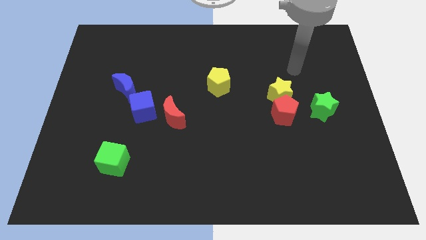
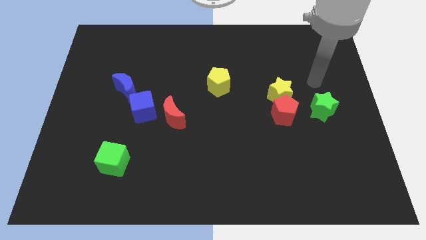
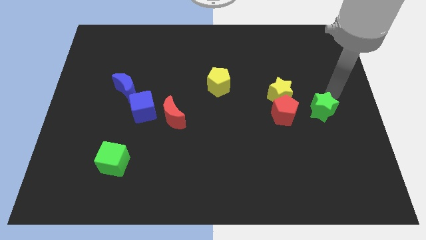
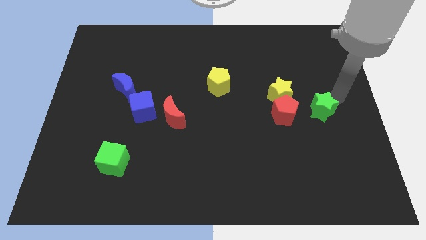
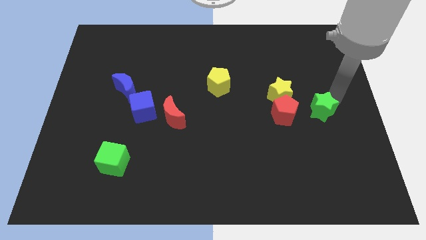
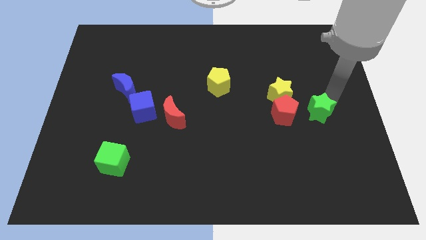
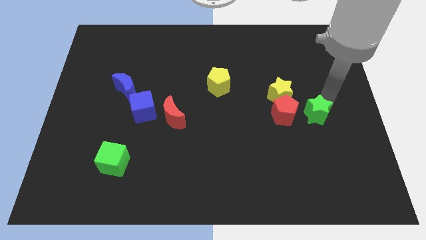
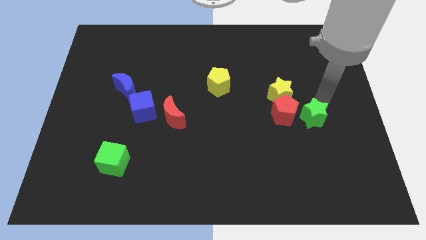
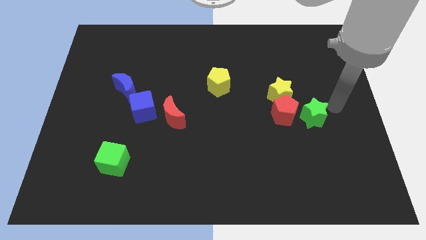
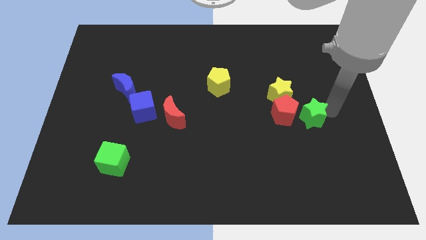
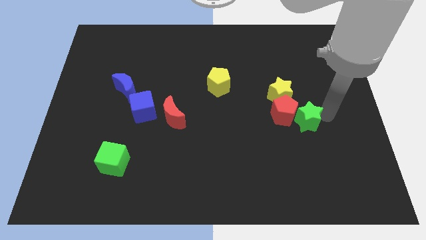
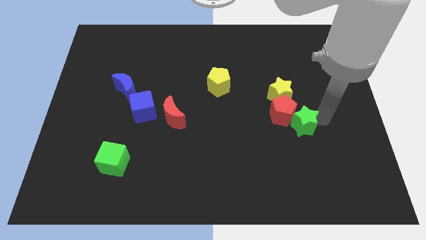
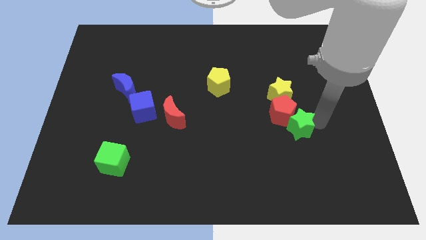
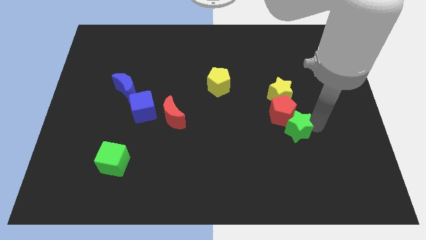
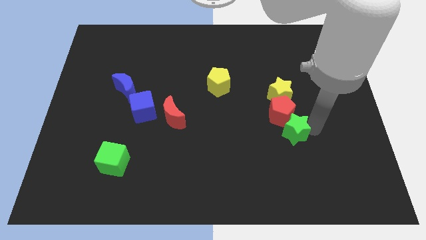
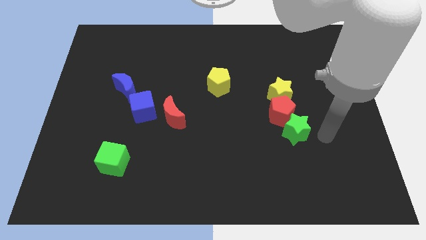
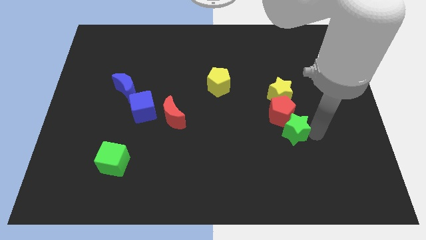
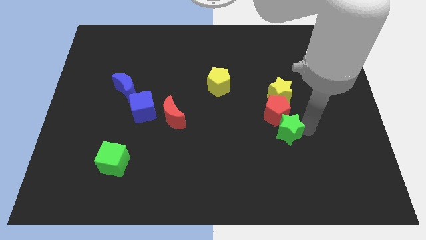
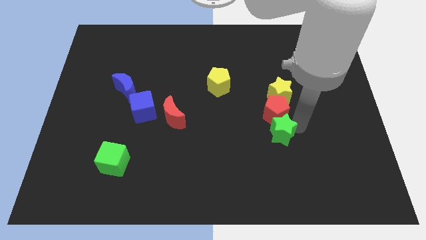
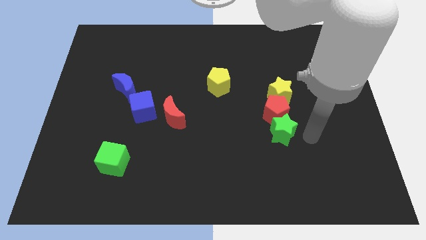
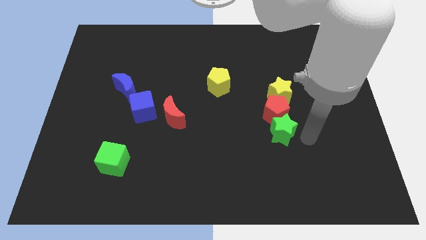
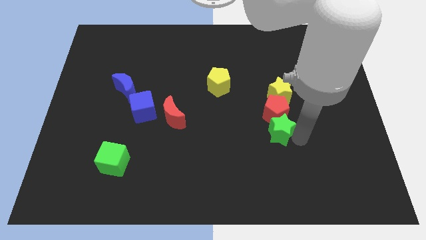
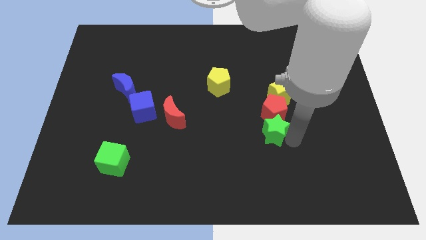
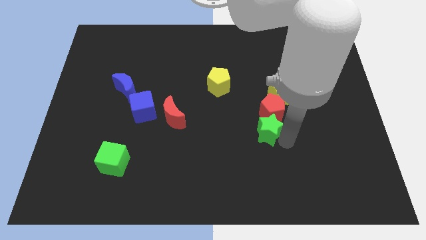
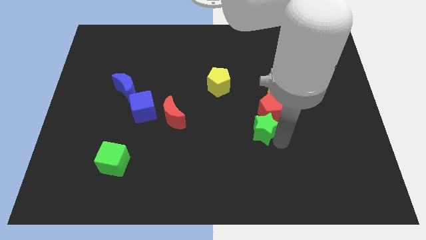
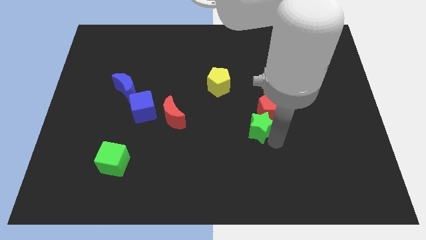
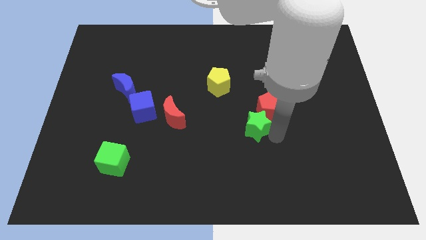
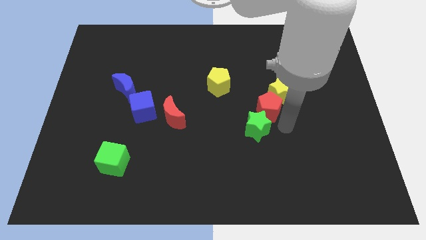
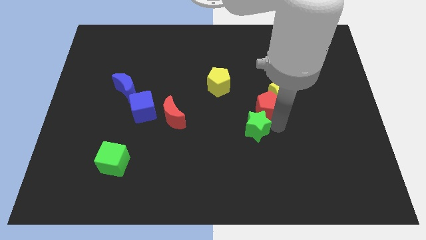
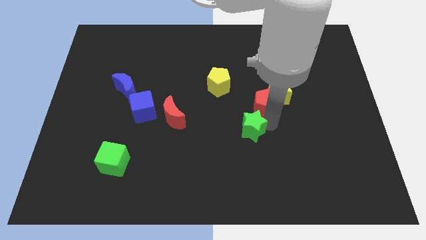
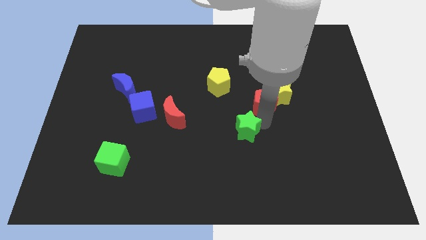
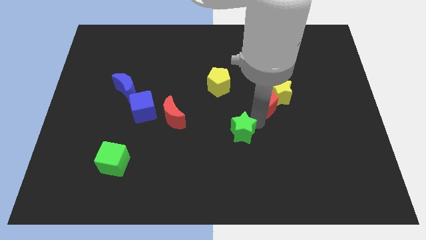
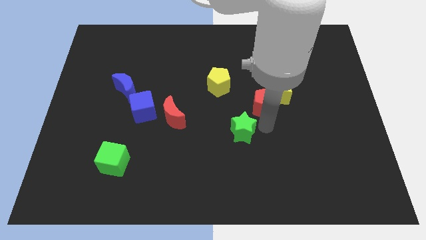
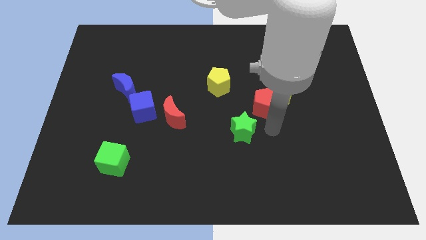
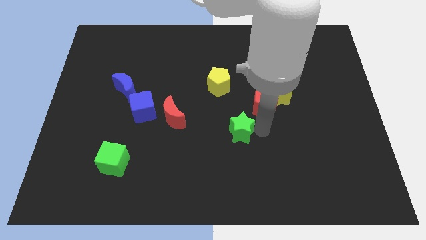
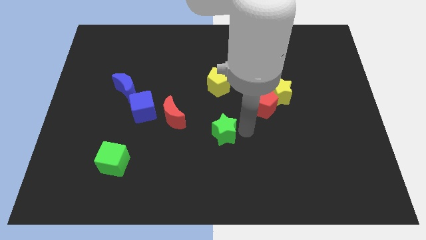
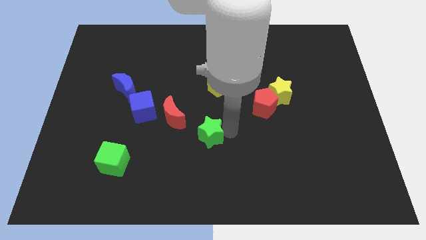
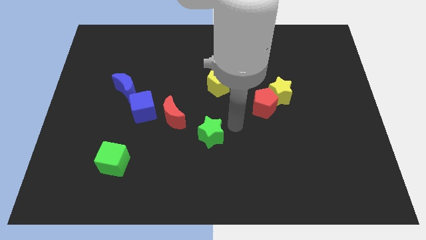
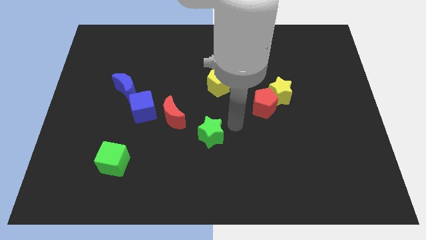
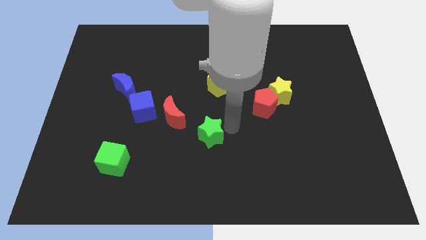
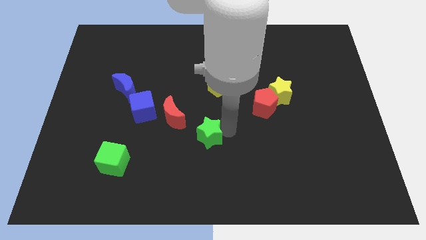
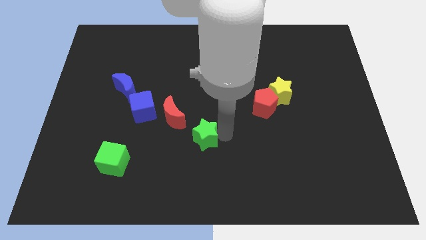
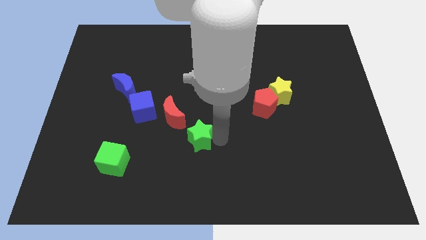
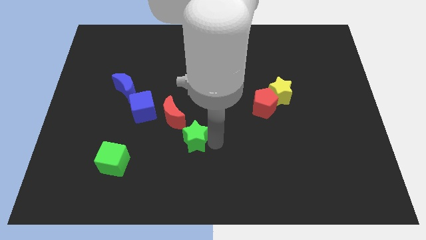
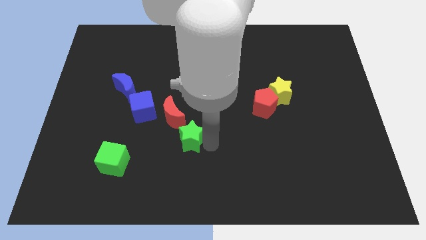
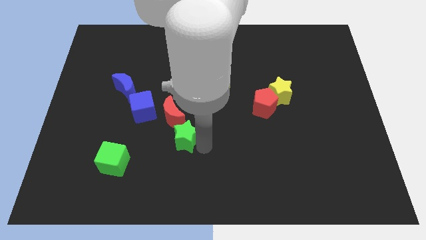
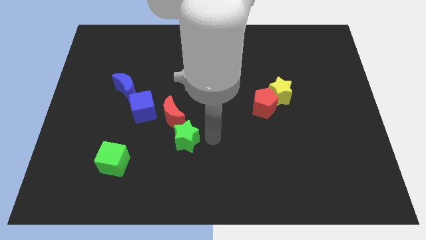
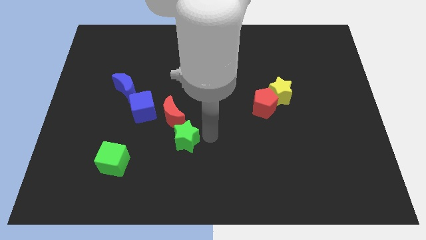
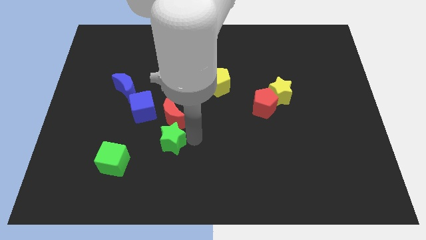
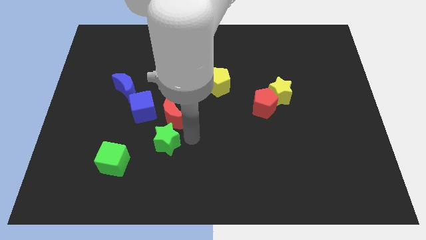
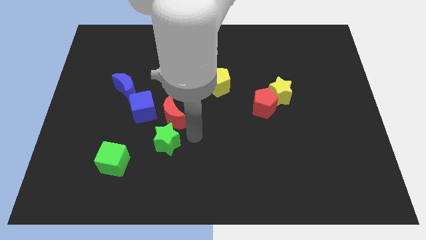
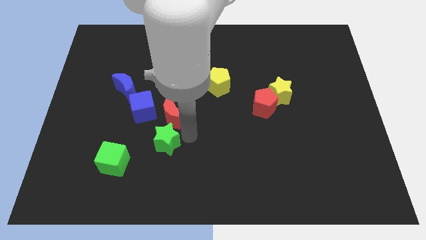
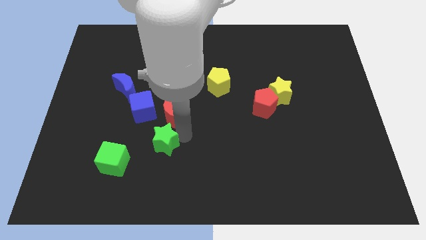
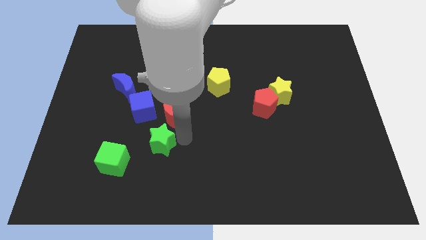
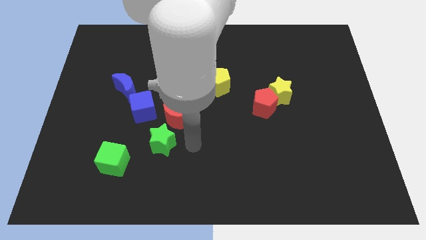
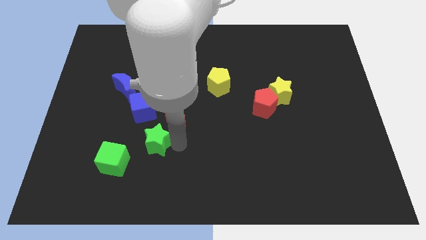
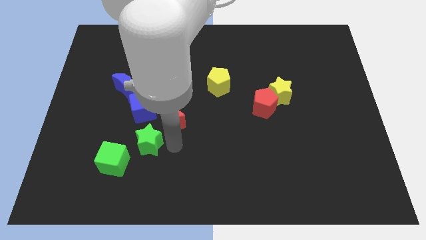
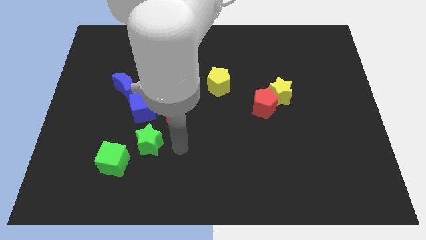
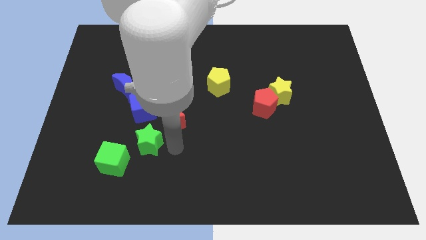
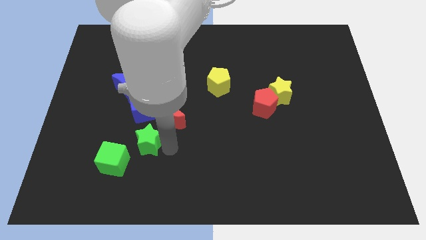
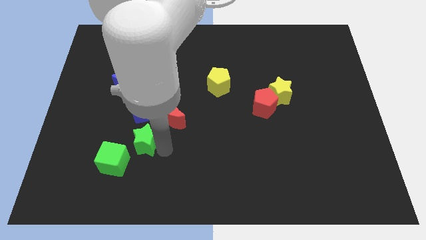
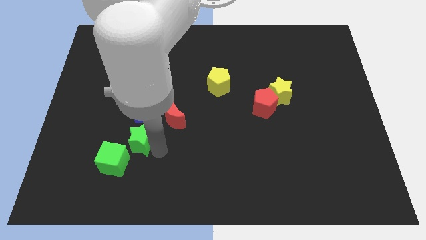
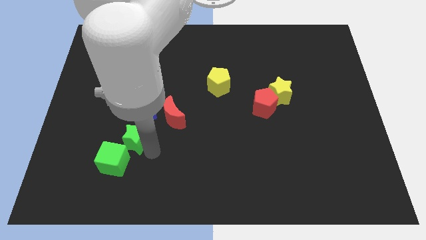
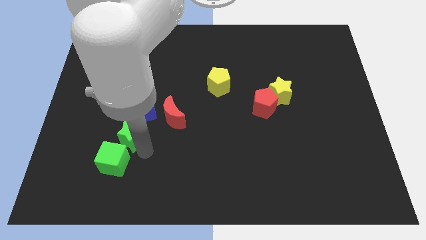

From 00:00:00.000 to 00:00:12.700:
slide the green star diagonally down and to the left of the blue cube

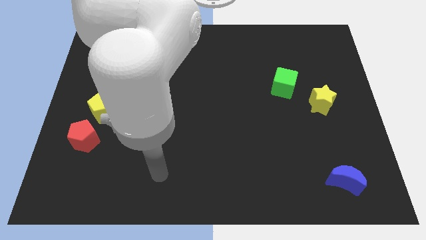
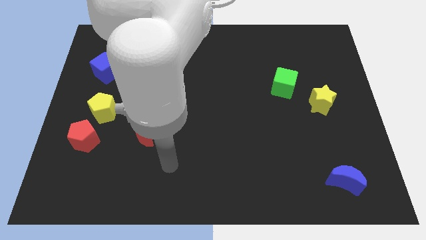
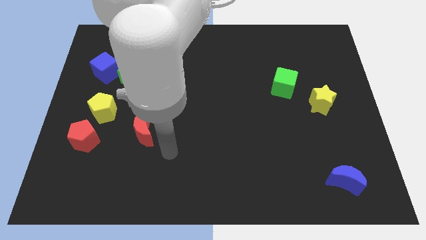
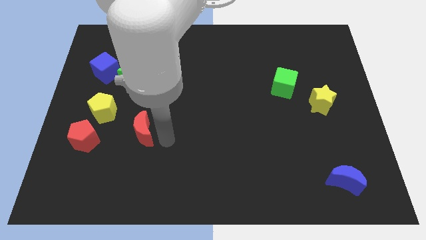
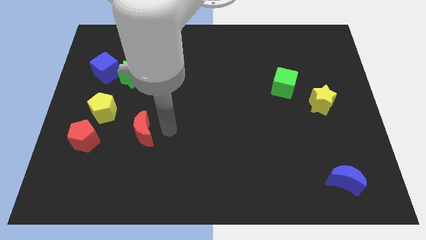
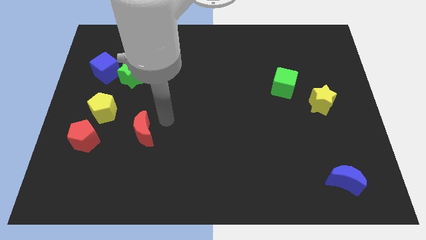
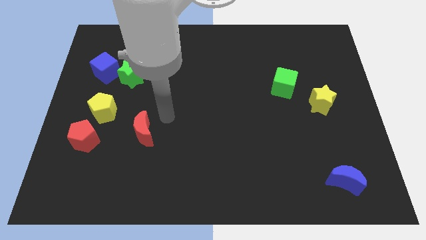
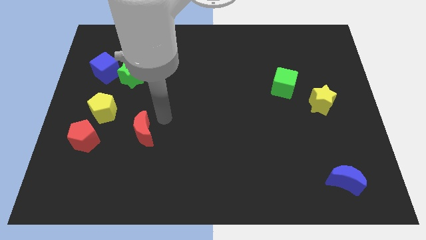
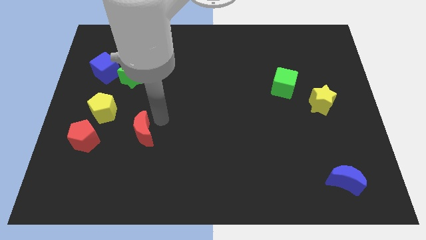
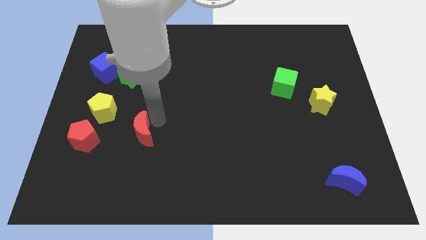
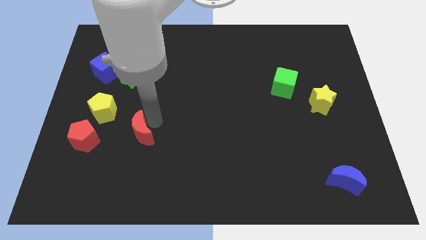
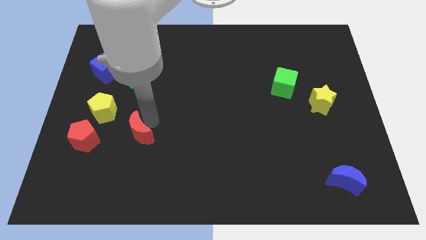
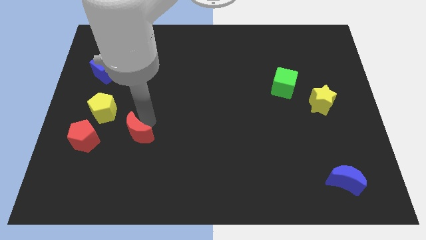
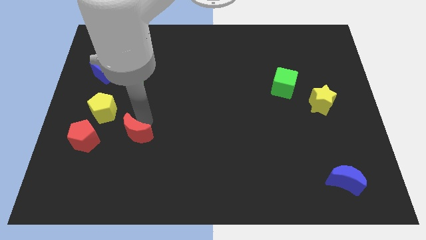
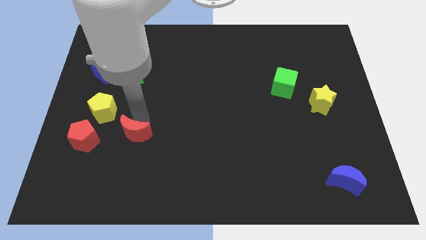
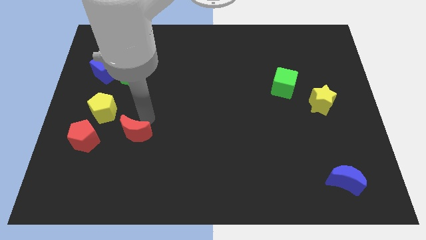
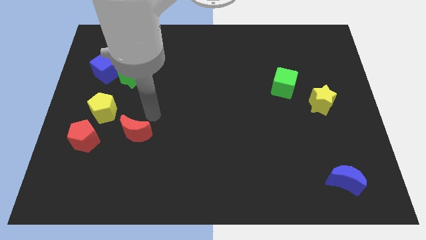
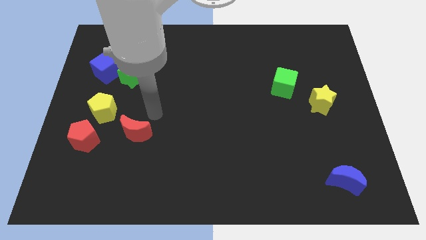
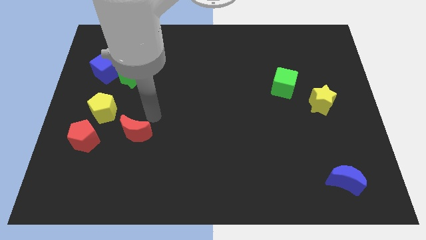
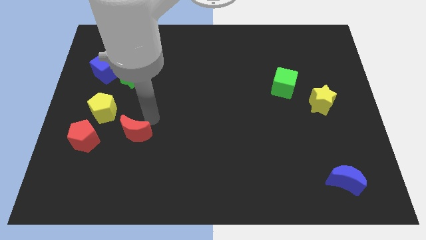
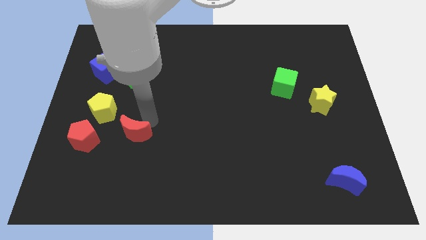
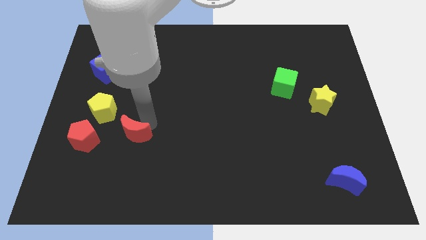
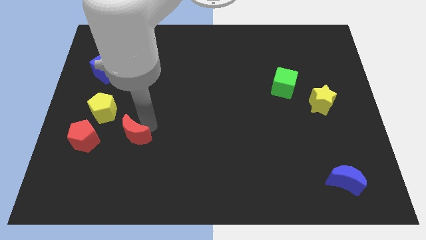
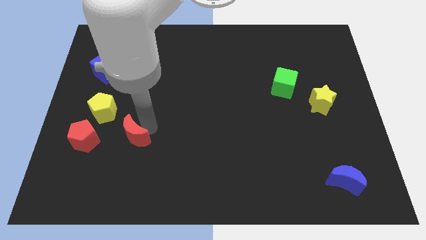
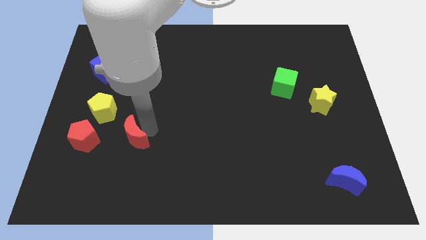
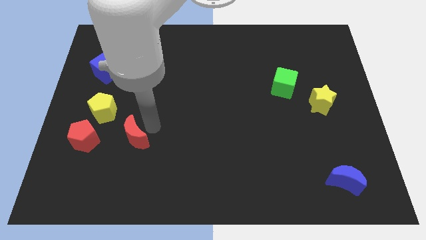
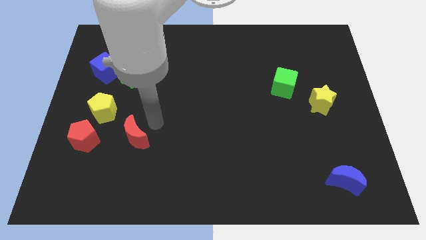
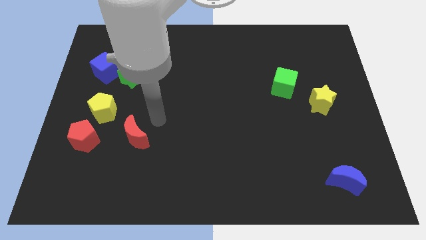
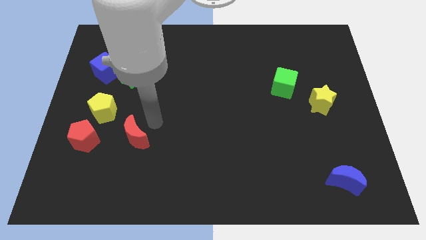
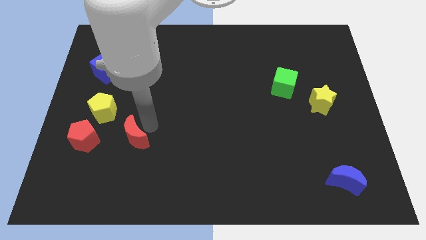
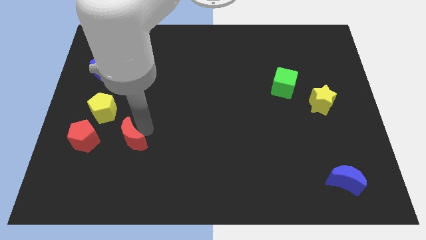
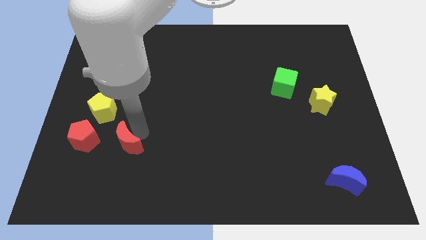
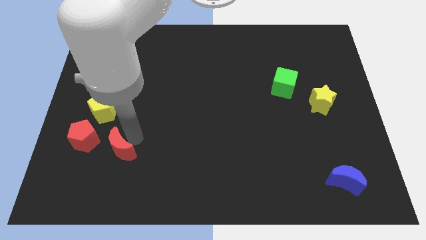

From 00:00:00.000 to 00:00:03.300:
slide the red moon to the bottom right side of the red pentagon
